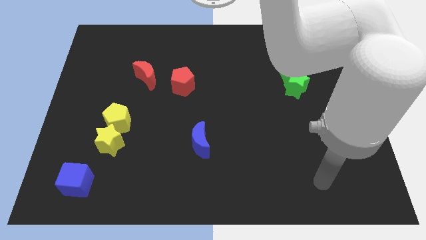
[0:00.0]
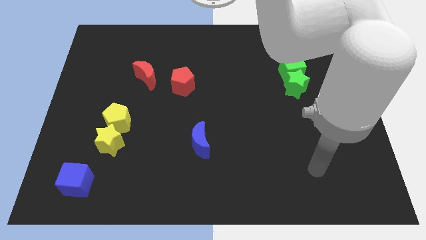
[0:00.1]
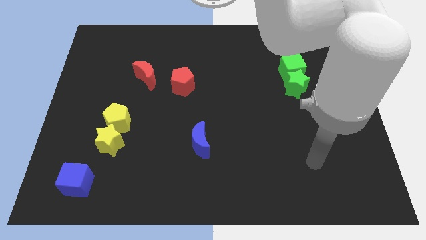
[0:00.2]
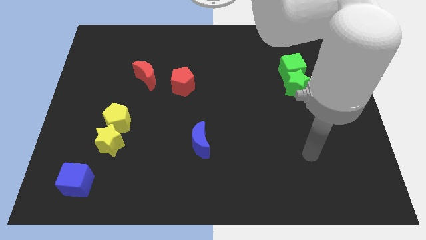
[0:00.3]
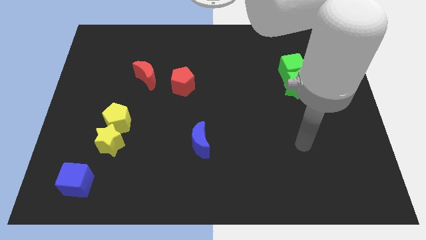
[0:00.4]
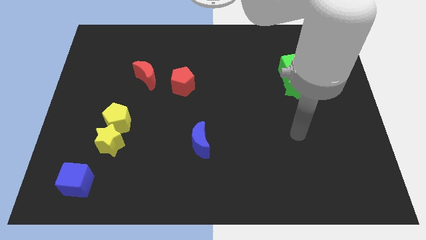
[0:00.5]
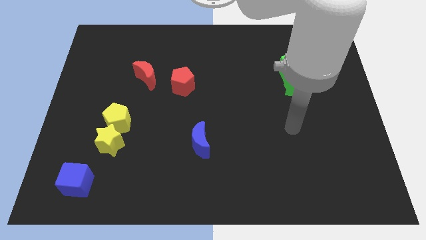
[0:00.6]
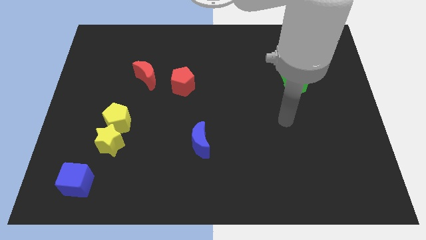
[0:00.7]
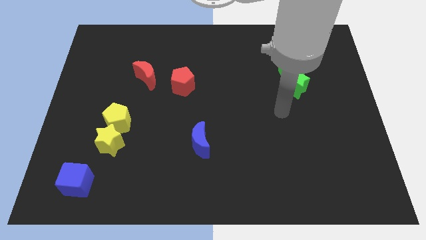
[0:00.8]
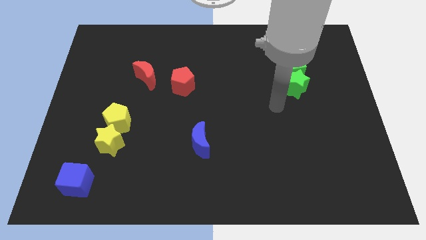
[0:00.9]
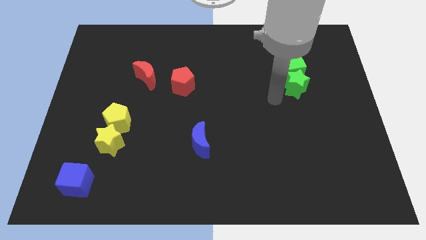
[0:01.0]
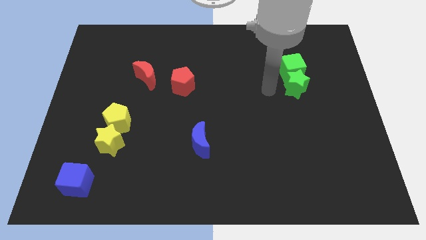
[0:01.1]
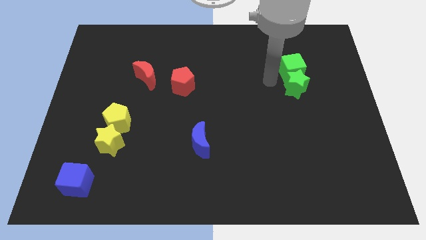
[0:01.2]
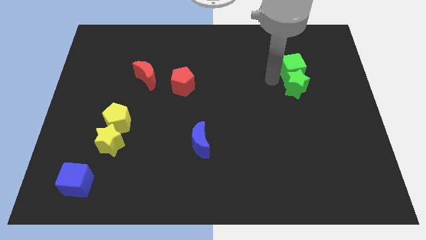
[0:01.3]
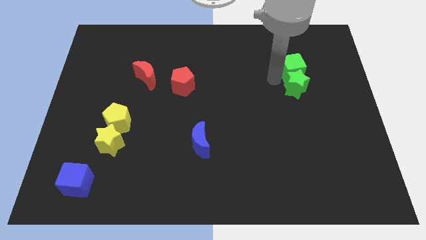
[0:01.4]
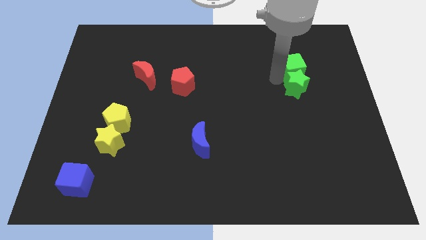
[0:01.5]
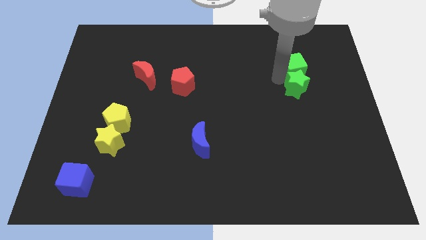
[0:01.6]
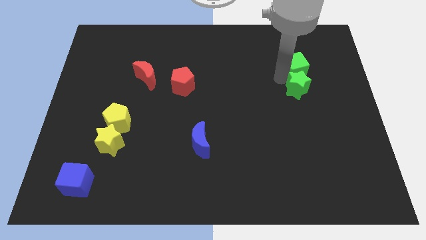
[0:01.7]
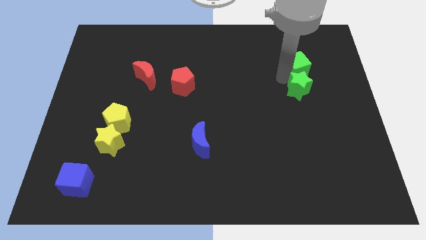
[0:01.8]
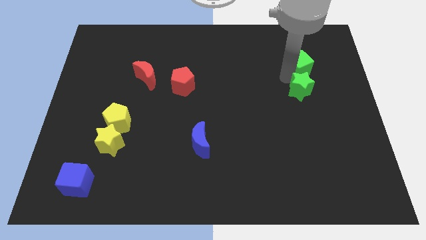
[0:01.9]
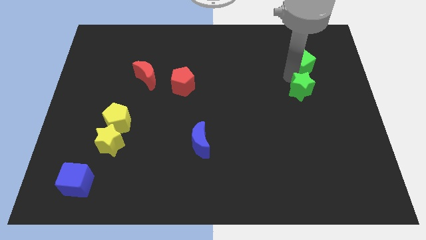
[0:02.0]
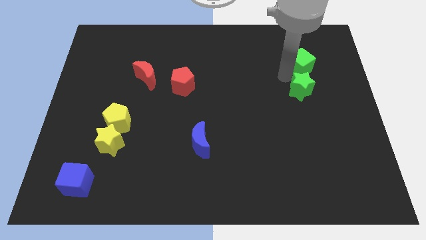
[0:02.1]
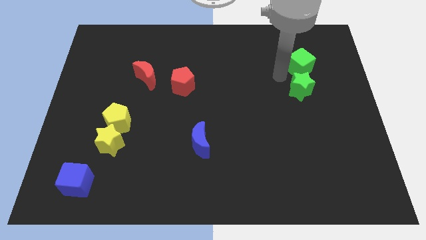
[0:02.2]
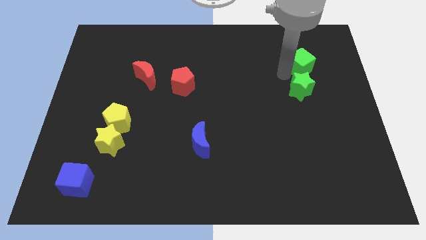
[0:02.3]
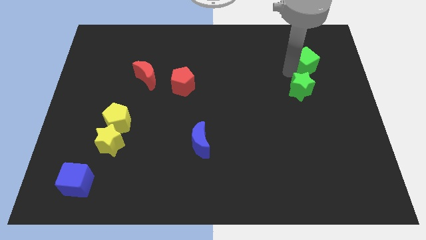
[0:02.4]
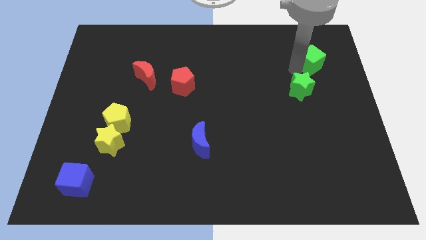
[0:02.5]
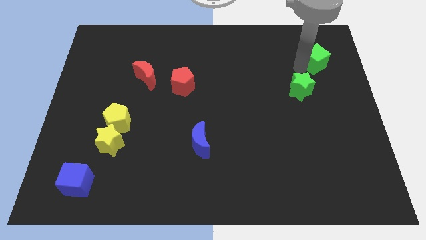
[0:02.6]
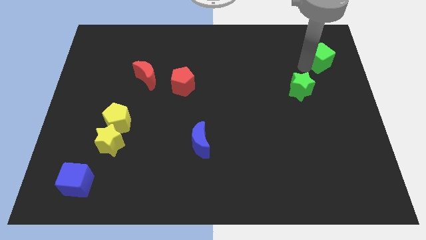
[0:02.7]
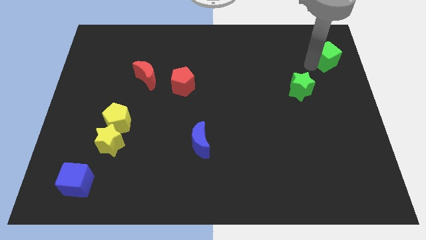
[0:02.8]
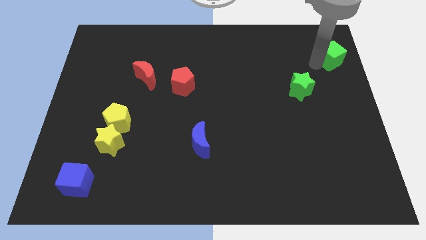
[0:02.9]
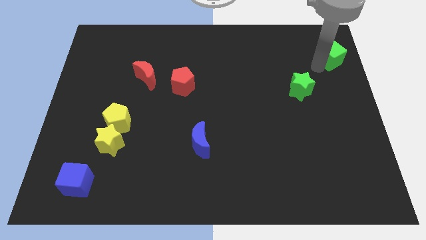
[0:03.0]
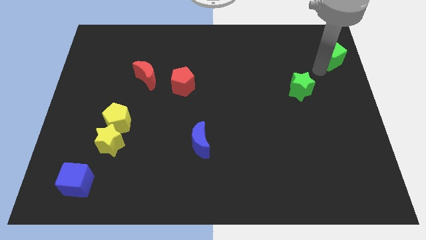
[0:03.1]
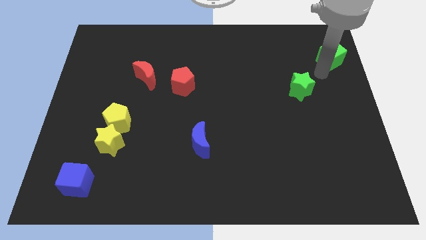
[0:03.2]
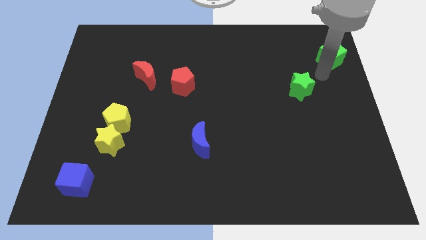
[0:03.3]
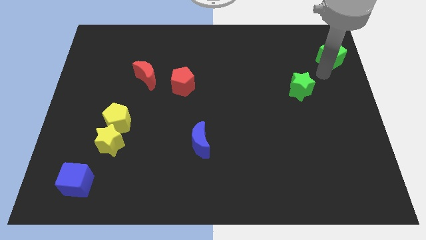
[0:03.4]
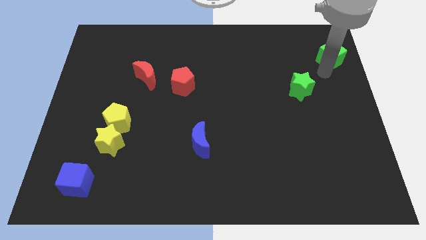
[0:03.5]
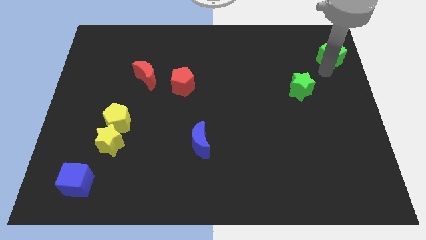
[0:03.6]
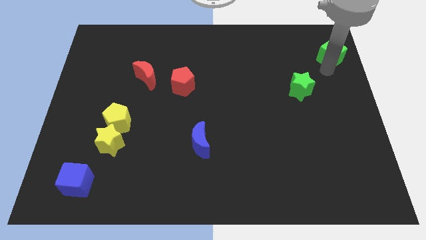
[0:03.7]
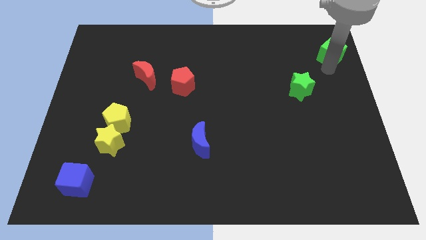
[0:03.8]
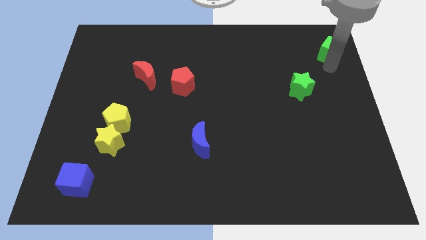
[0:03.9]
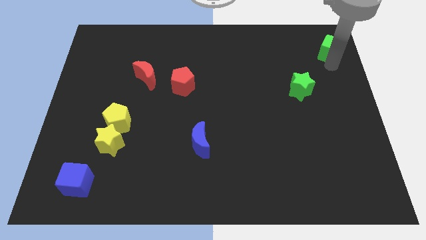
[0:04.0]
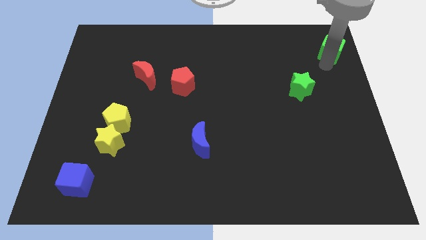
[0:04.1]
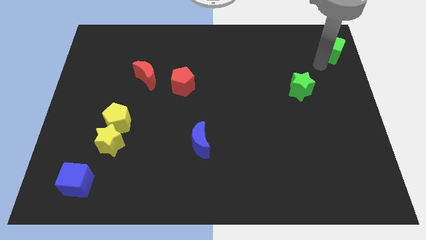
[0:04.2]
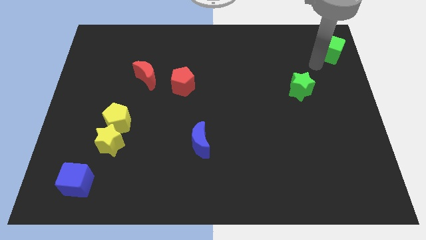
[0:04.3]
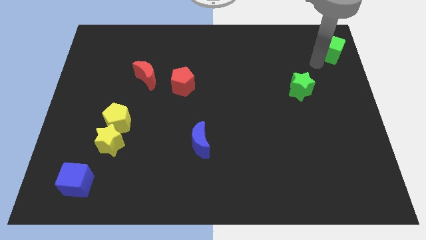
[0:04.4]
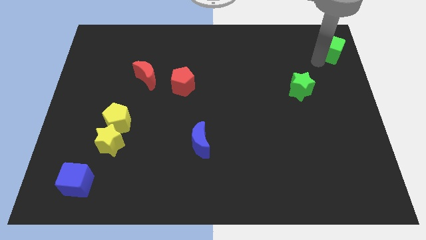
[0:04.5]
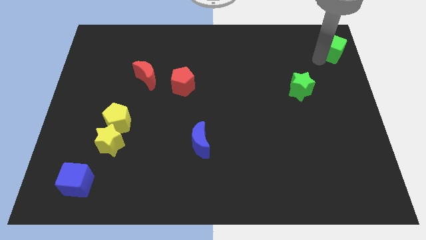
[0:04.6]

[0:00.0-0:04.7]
slide the green cube to the top right corner

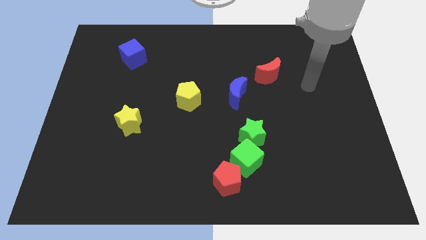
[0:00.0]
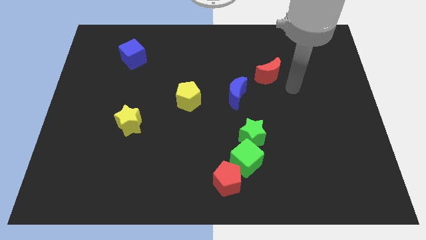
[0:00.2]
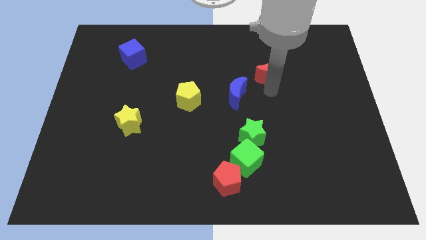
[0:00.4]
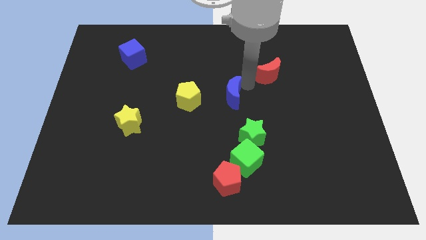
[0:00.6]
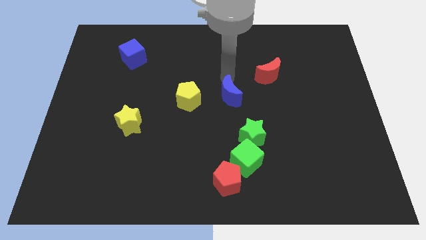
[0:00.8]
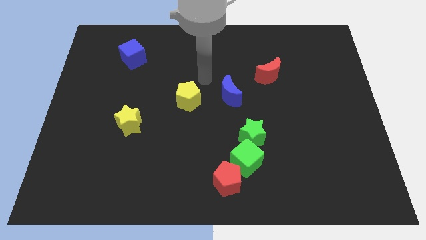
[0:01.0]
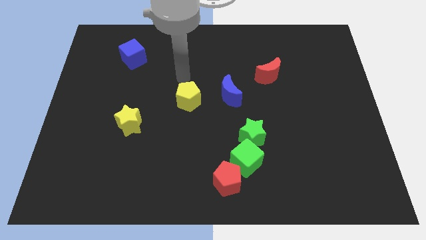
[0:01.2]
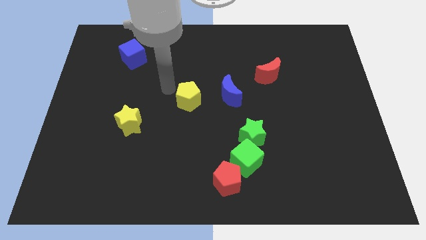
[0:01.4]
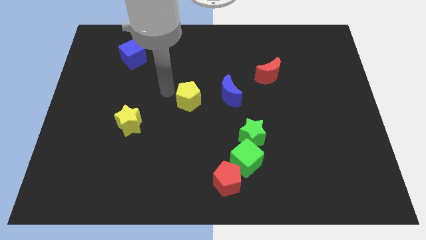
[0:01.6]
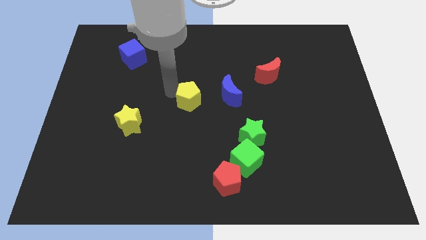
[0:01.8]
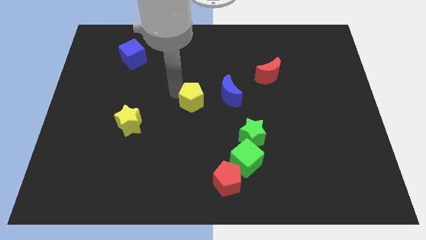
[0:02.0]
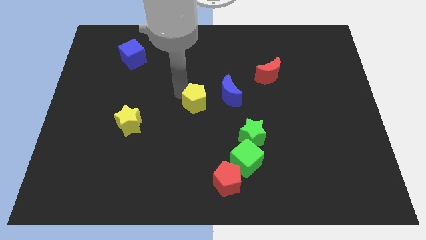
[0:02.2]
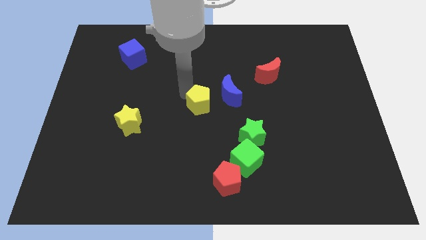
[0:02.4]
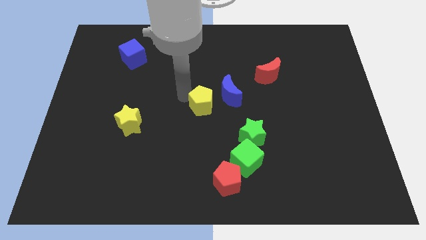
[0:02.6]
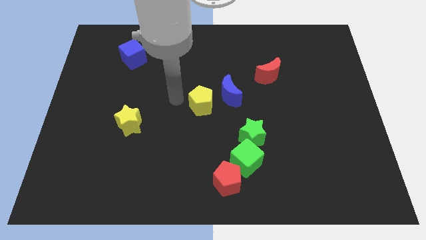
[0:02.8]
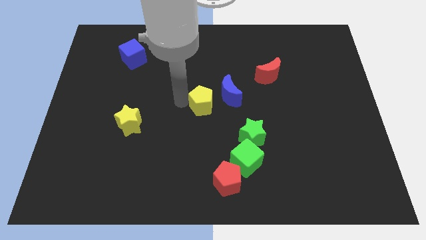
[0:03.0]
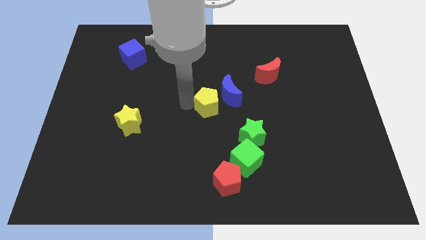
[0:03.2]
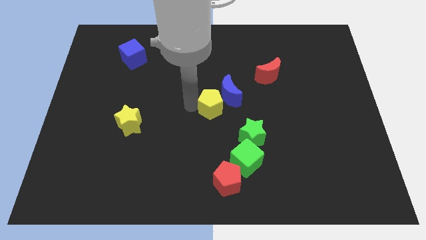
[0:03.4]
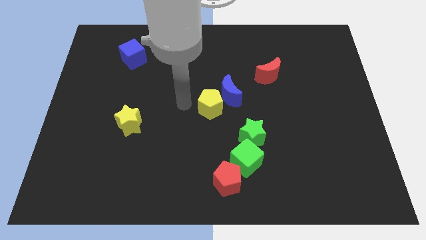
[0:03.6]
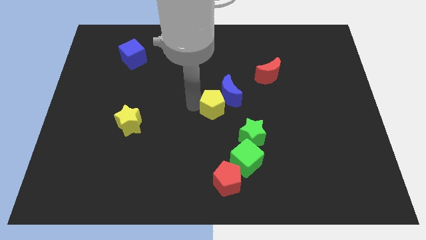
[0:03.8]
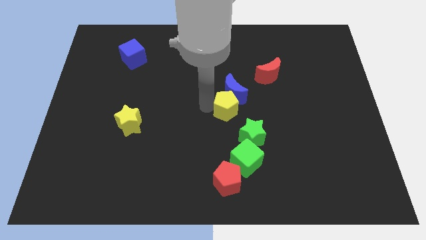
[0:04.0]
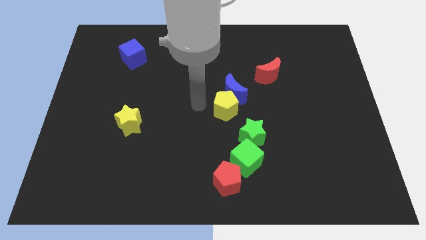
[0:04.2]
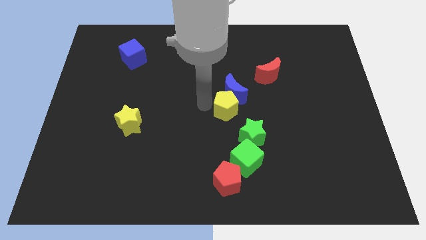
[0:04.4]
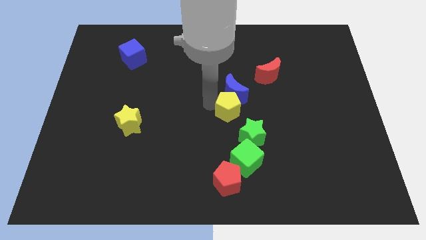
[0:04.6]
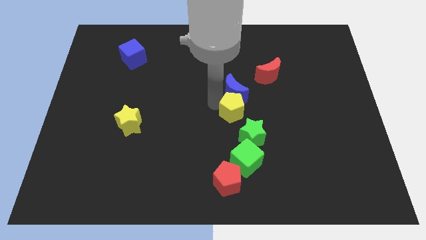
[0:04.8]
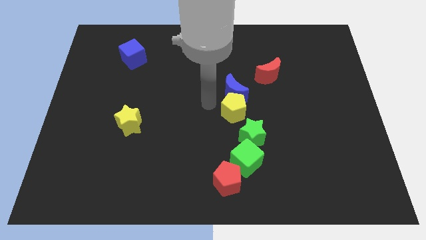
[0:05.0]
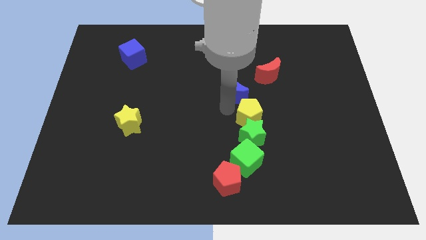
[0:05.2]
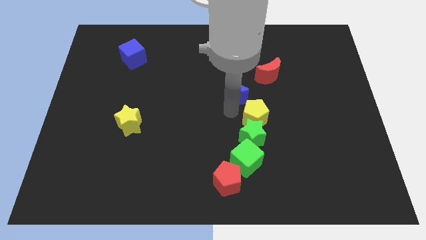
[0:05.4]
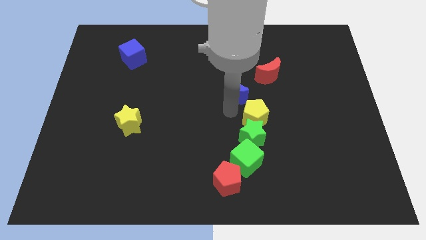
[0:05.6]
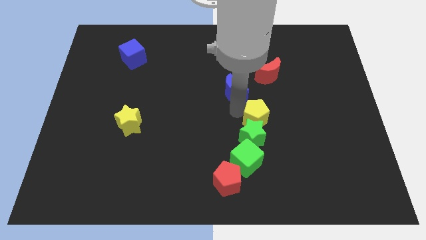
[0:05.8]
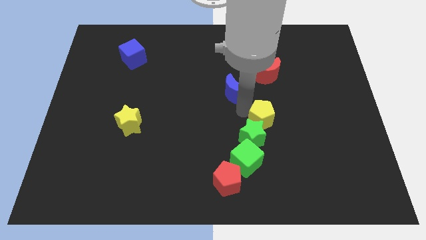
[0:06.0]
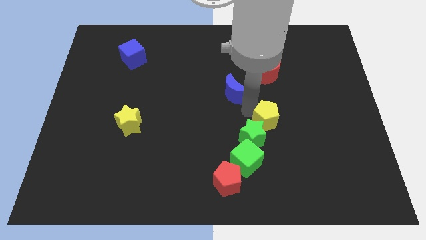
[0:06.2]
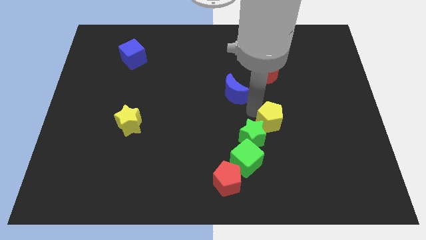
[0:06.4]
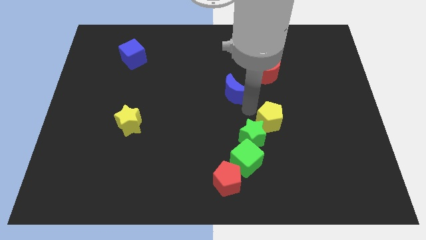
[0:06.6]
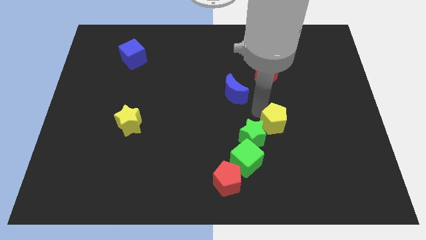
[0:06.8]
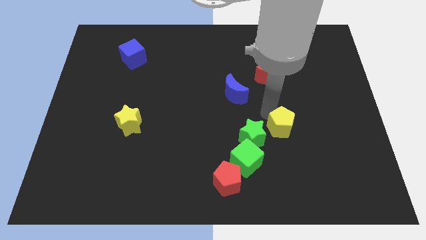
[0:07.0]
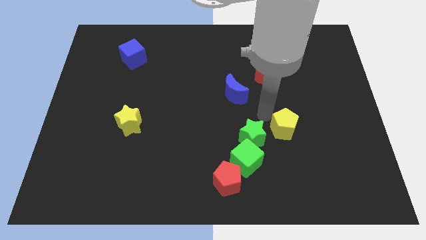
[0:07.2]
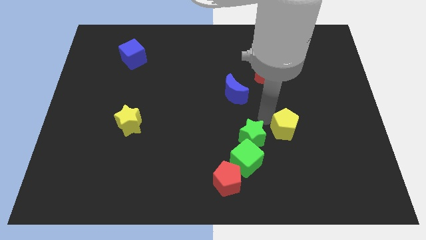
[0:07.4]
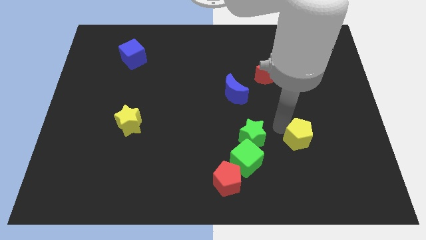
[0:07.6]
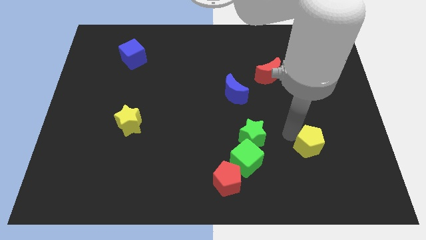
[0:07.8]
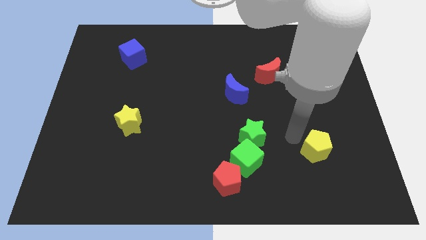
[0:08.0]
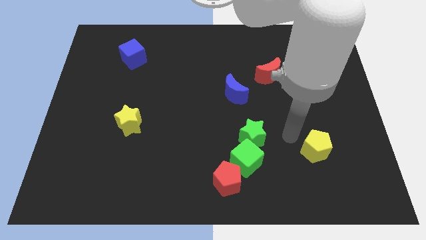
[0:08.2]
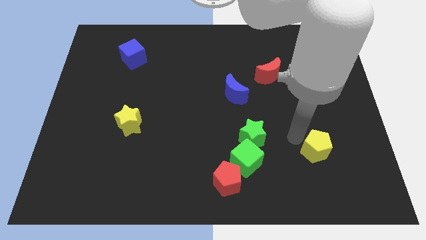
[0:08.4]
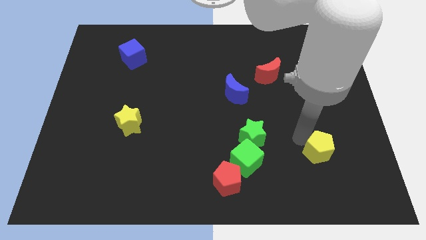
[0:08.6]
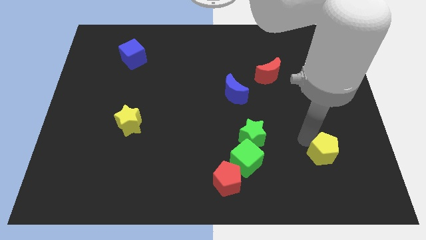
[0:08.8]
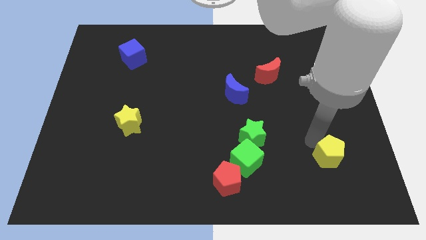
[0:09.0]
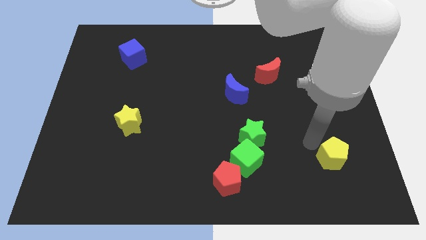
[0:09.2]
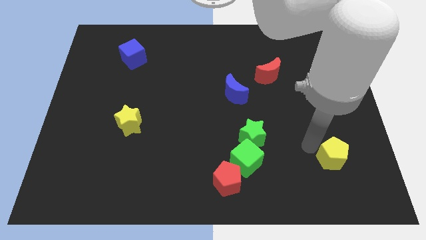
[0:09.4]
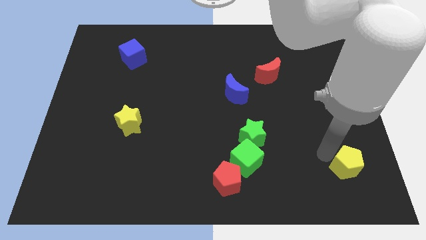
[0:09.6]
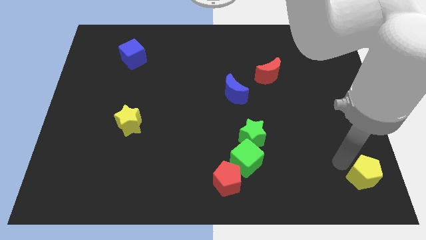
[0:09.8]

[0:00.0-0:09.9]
move the yellow pentagon to the bottom right corner
